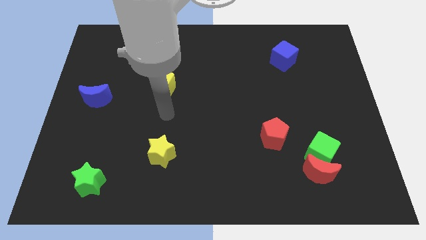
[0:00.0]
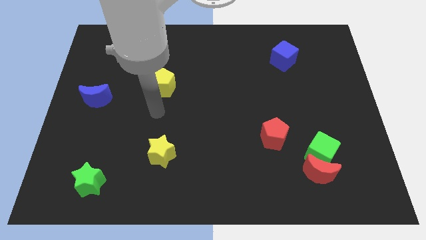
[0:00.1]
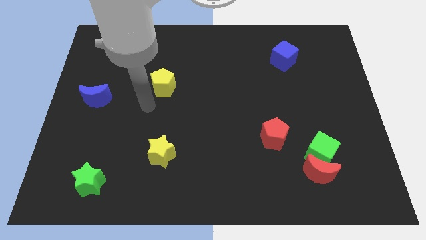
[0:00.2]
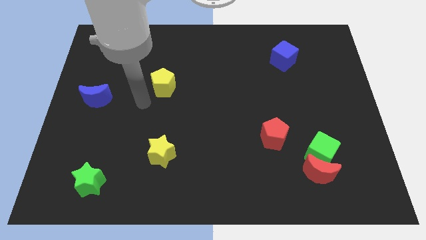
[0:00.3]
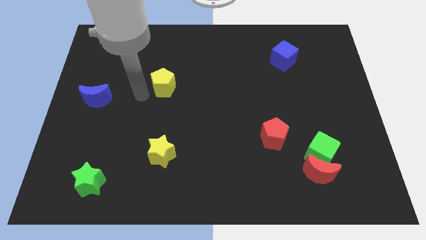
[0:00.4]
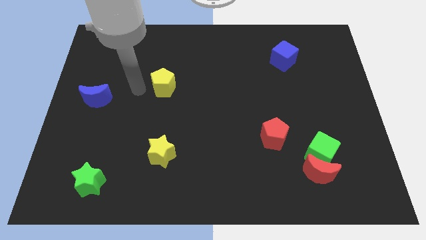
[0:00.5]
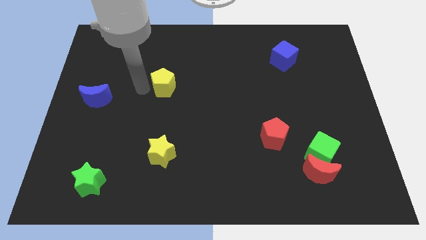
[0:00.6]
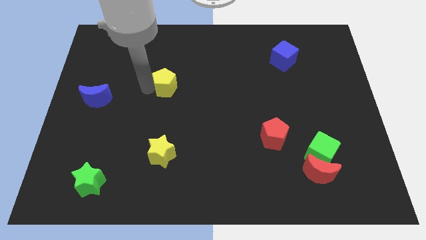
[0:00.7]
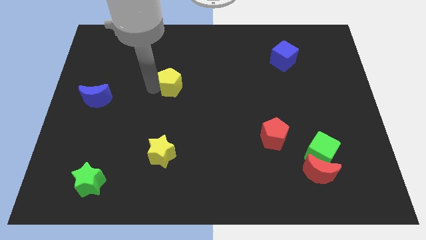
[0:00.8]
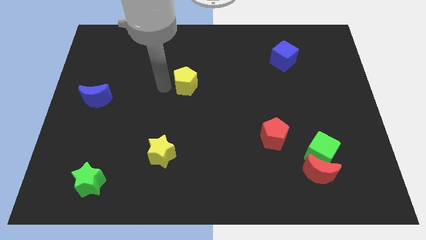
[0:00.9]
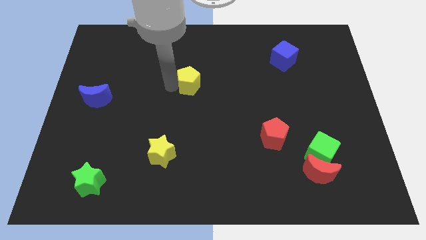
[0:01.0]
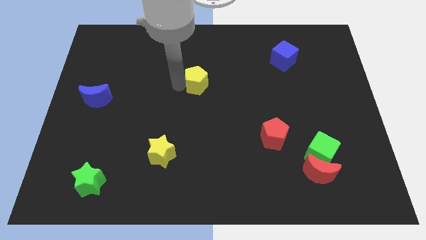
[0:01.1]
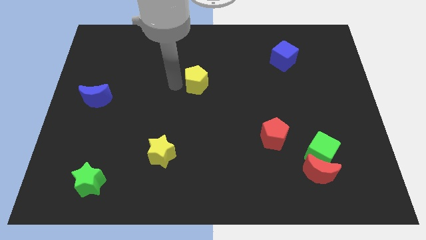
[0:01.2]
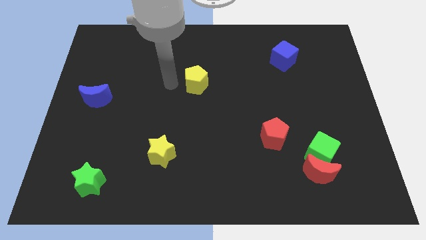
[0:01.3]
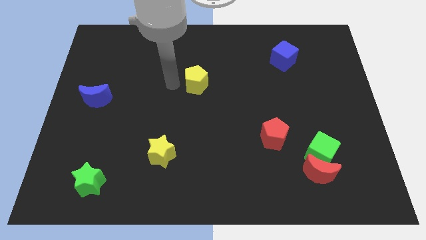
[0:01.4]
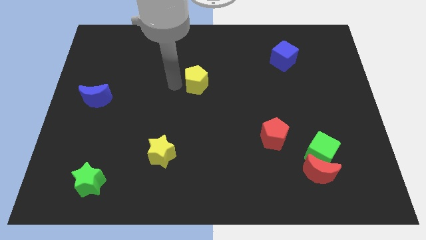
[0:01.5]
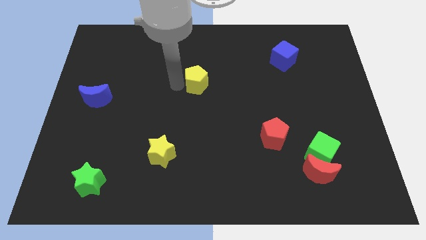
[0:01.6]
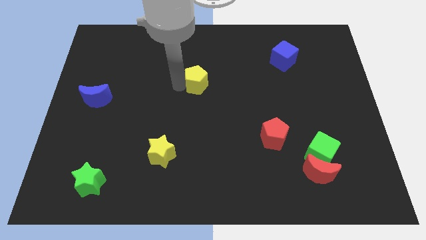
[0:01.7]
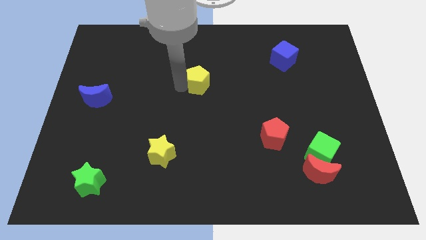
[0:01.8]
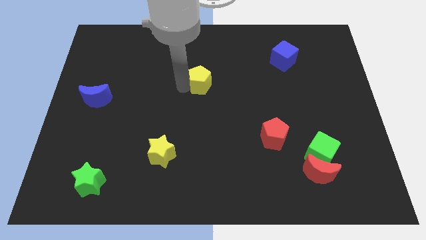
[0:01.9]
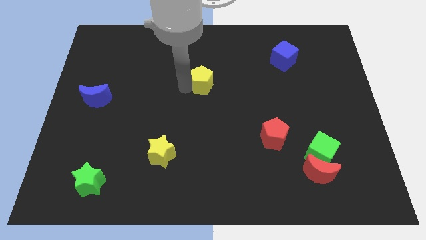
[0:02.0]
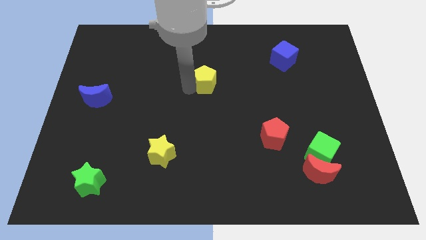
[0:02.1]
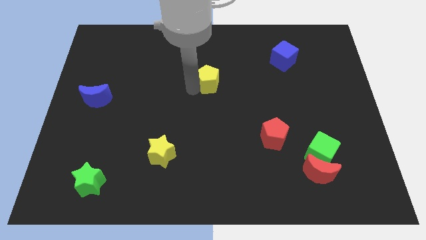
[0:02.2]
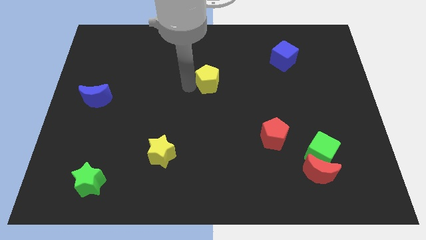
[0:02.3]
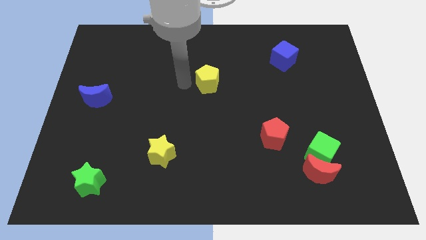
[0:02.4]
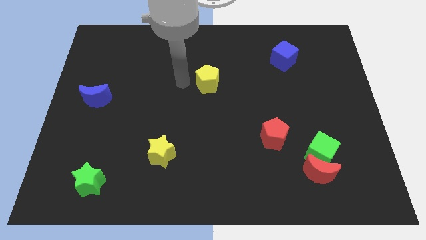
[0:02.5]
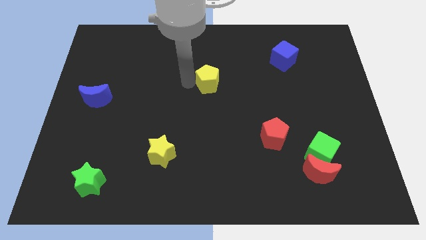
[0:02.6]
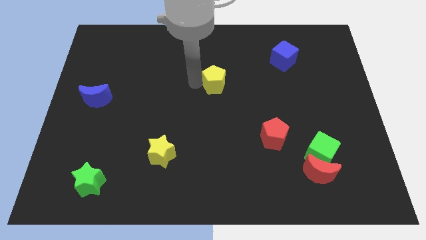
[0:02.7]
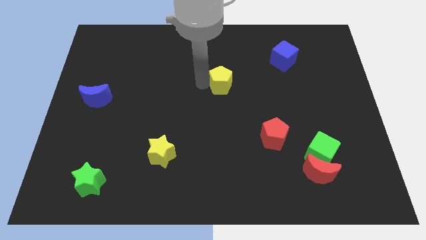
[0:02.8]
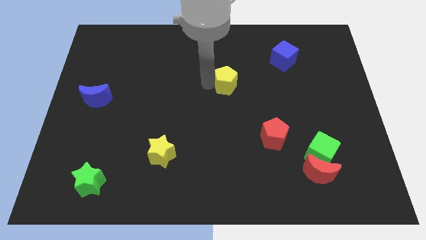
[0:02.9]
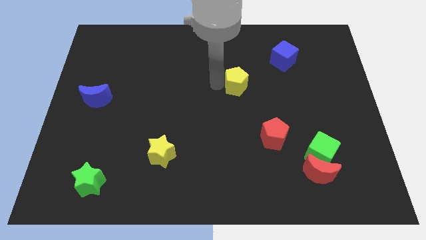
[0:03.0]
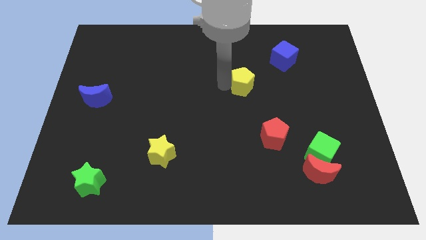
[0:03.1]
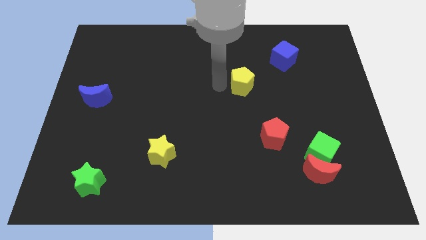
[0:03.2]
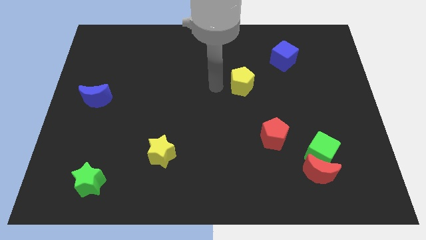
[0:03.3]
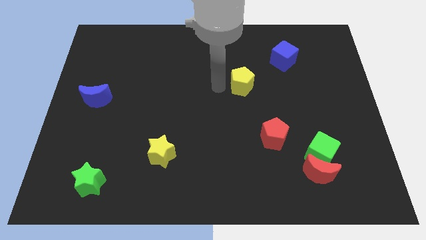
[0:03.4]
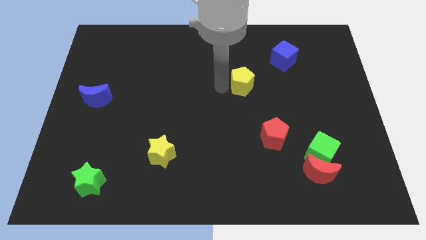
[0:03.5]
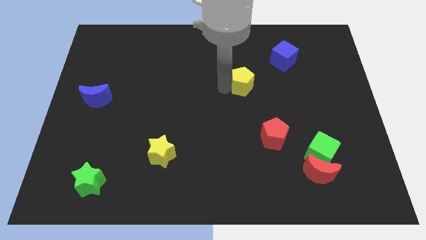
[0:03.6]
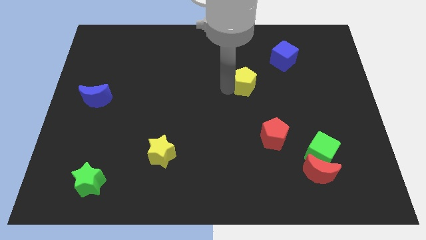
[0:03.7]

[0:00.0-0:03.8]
push the yellow pentagon right

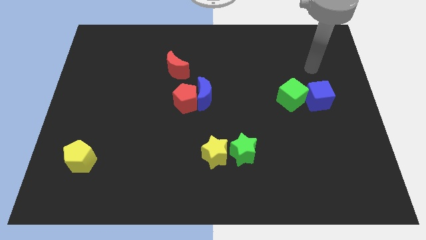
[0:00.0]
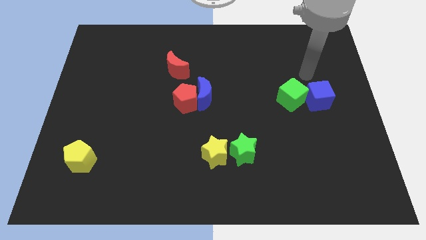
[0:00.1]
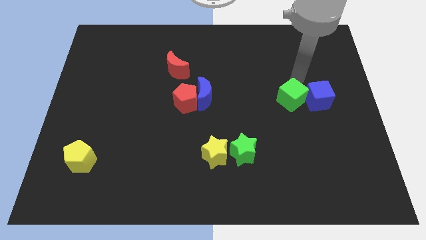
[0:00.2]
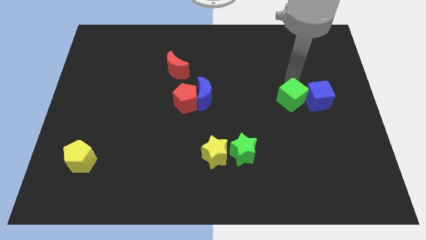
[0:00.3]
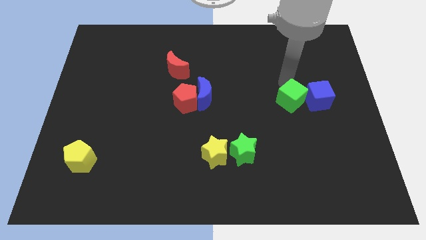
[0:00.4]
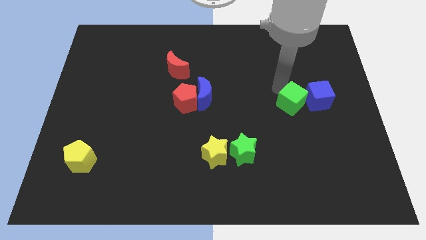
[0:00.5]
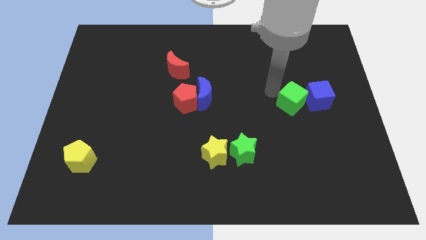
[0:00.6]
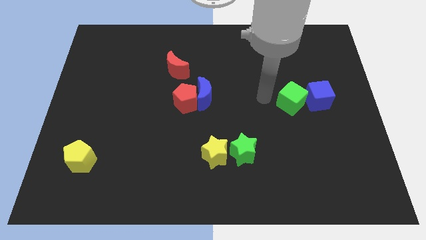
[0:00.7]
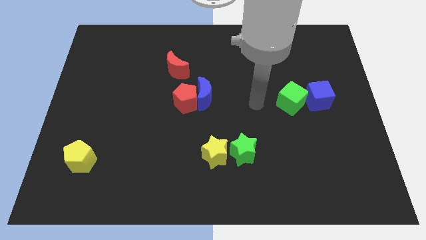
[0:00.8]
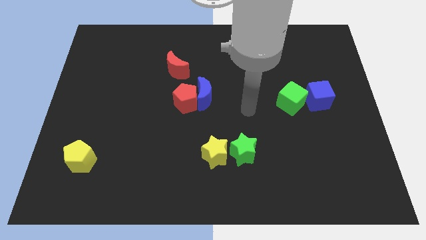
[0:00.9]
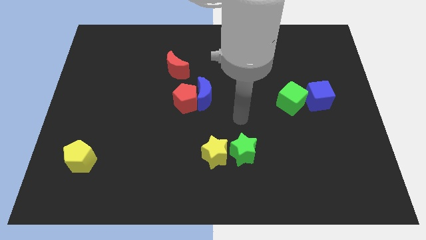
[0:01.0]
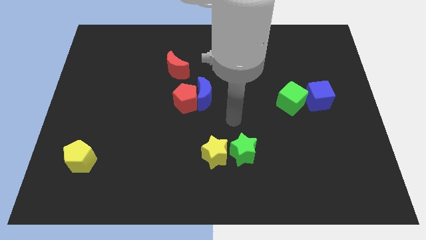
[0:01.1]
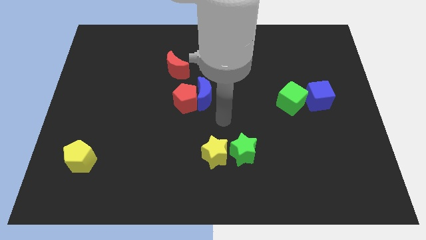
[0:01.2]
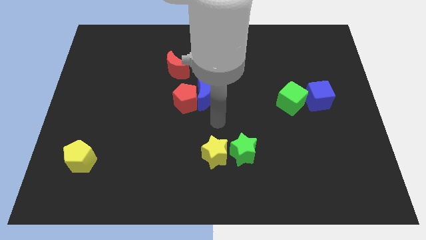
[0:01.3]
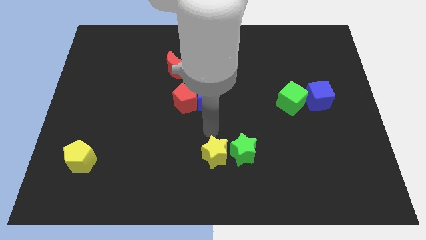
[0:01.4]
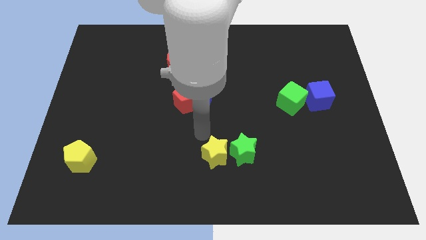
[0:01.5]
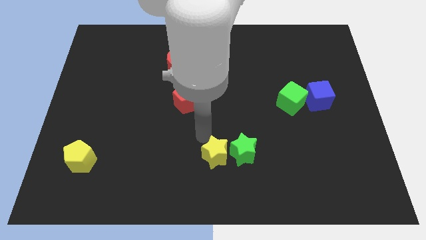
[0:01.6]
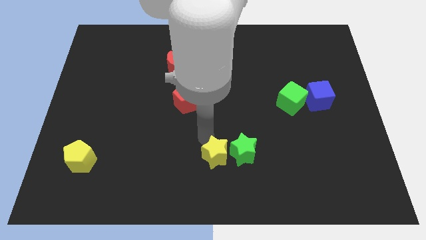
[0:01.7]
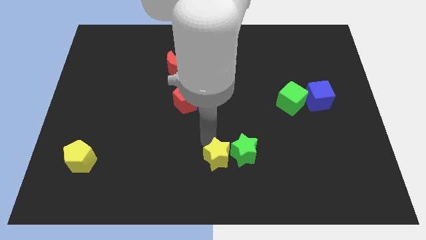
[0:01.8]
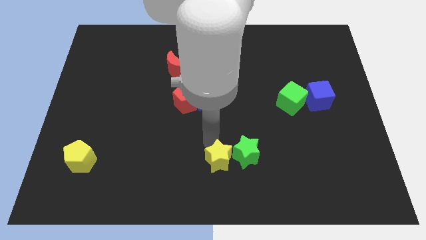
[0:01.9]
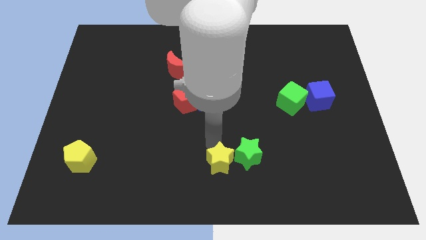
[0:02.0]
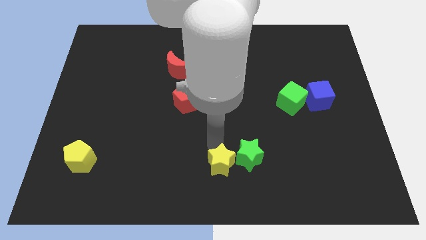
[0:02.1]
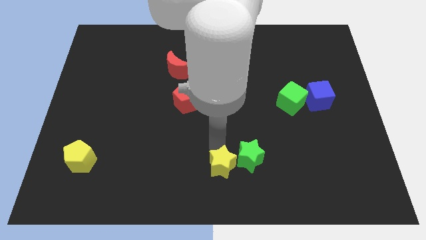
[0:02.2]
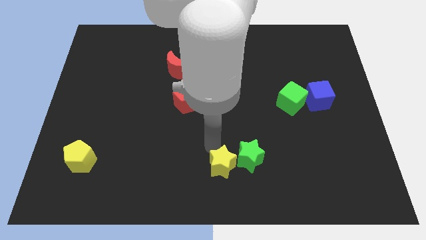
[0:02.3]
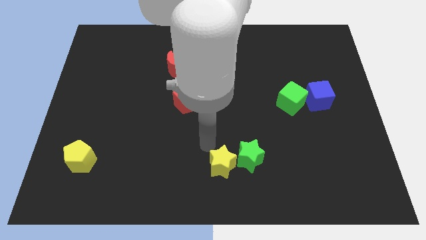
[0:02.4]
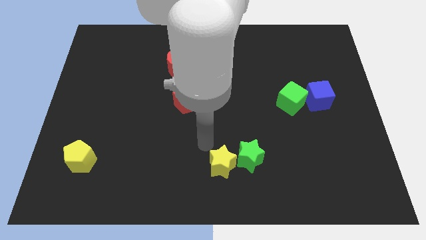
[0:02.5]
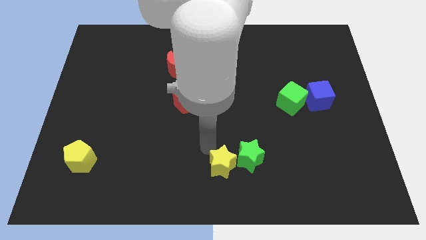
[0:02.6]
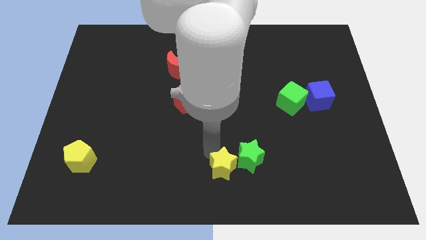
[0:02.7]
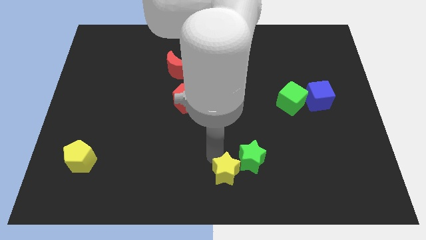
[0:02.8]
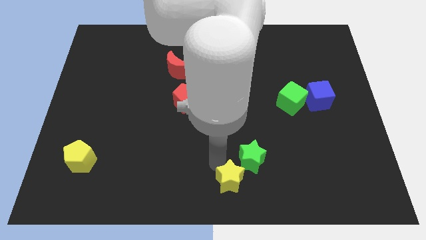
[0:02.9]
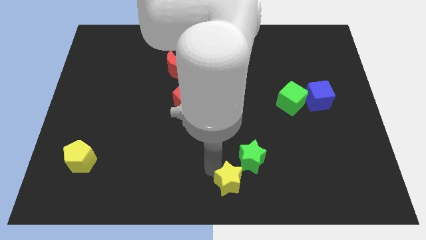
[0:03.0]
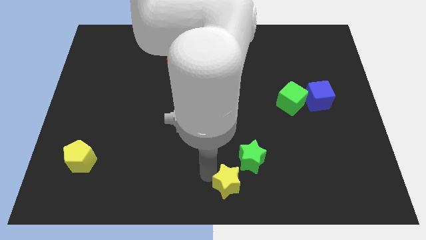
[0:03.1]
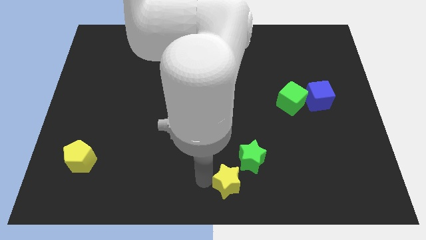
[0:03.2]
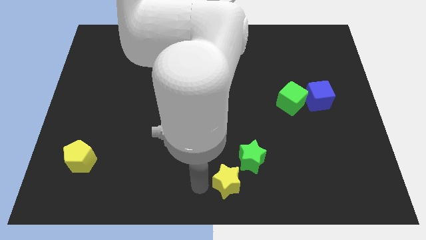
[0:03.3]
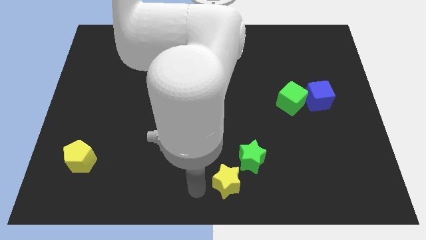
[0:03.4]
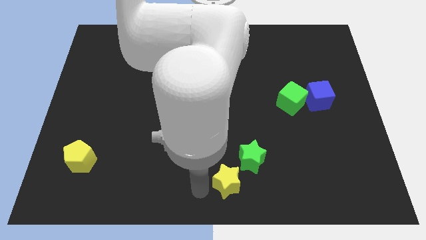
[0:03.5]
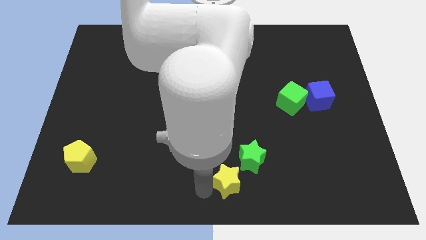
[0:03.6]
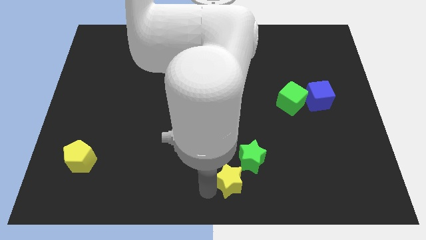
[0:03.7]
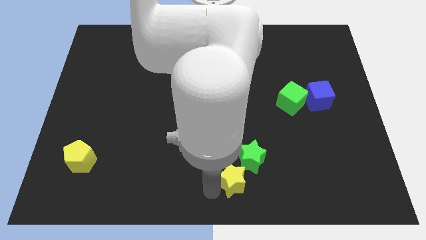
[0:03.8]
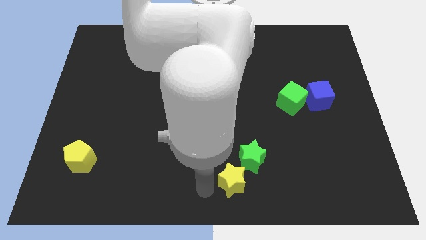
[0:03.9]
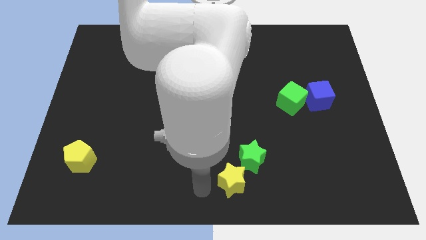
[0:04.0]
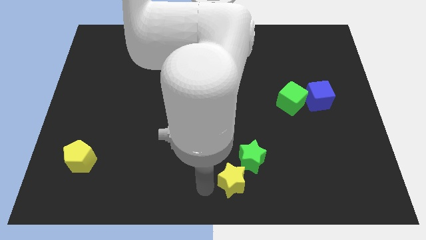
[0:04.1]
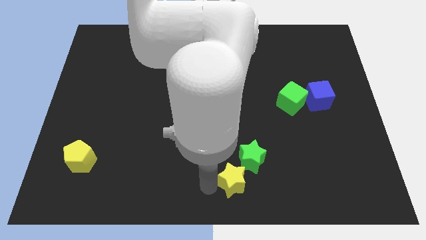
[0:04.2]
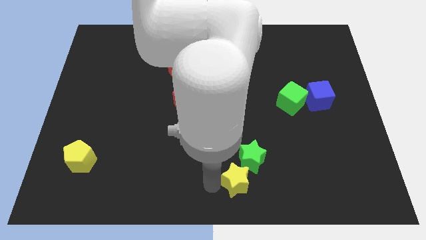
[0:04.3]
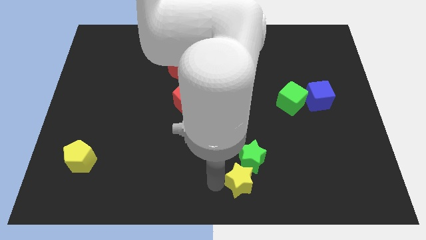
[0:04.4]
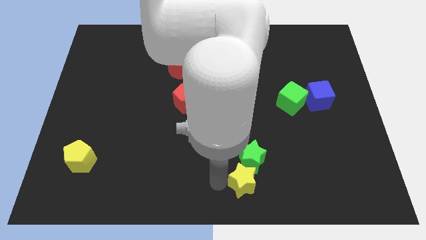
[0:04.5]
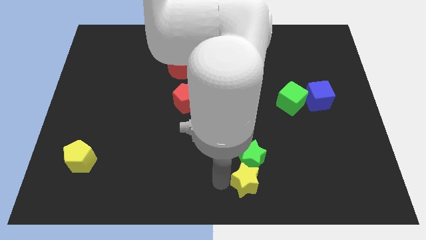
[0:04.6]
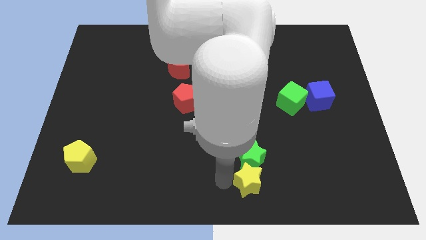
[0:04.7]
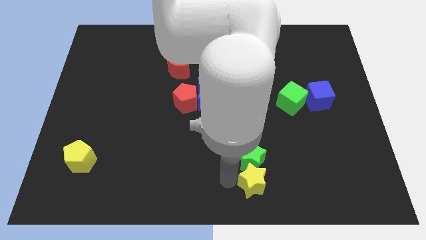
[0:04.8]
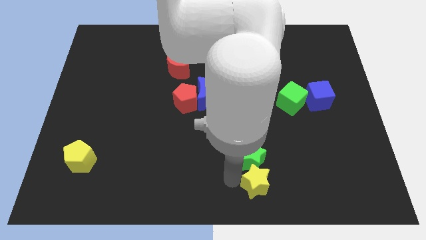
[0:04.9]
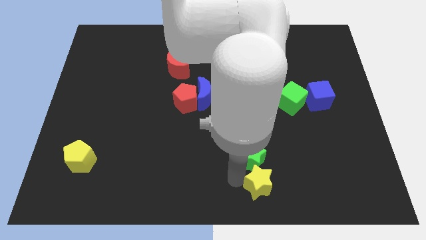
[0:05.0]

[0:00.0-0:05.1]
slide the yellow star a little bit to the right
